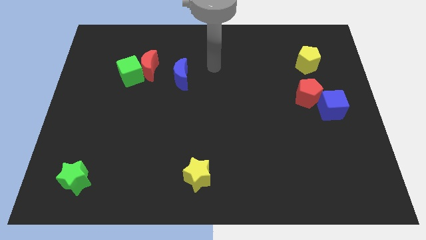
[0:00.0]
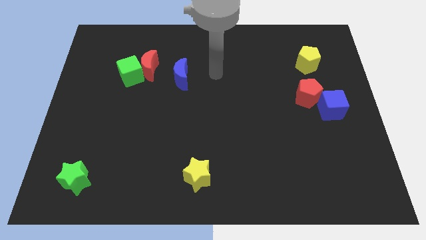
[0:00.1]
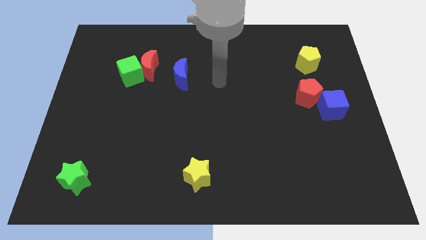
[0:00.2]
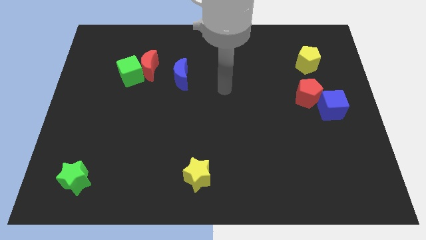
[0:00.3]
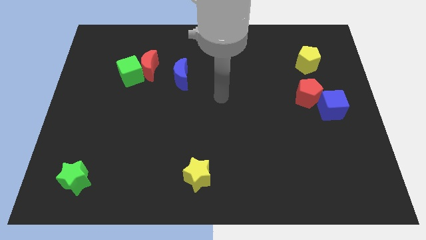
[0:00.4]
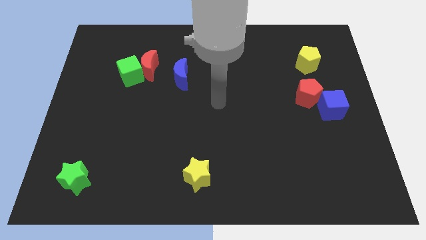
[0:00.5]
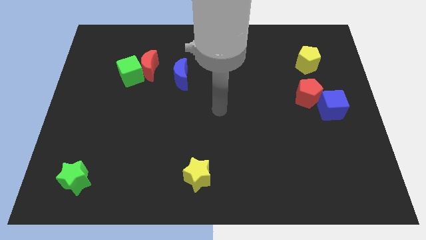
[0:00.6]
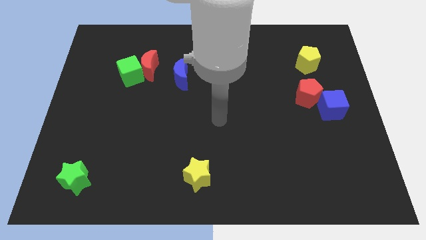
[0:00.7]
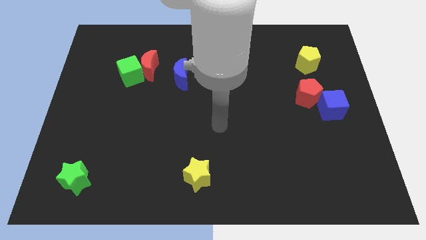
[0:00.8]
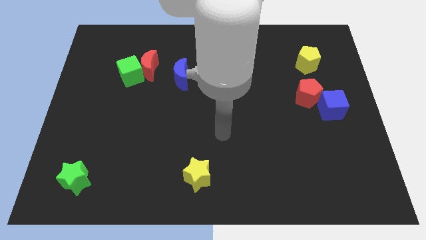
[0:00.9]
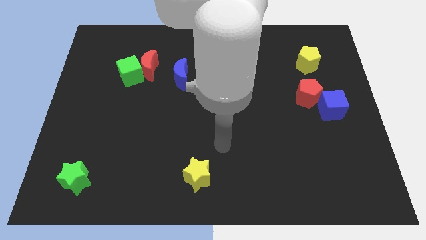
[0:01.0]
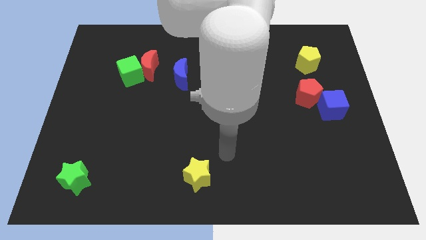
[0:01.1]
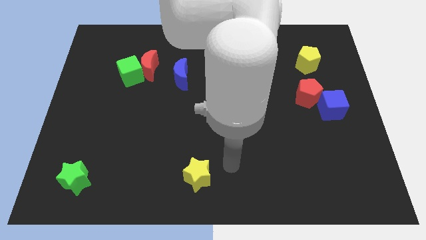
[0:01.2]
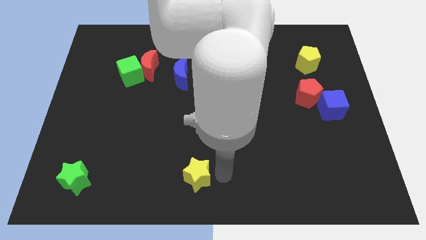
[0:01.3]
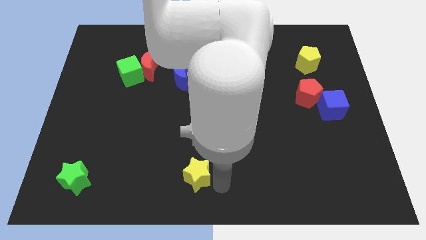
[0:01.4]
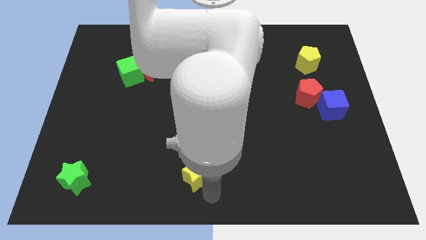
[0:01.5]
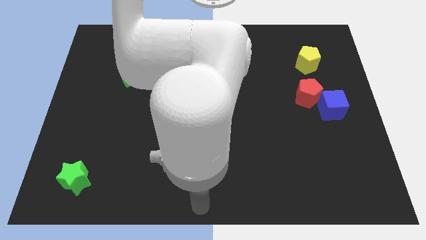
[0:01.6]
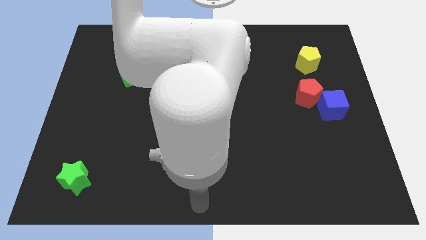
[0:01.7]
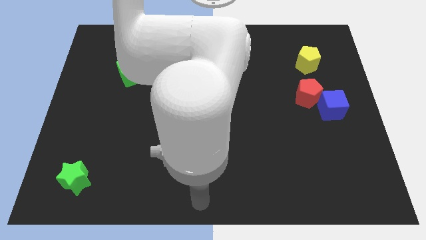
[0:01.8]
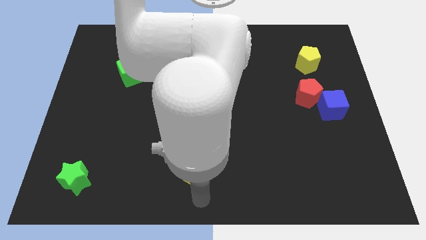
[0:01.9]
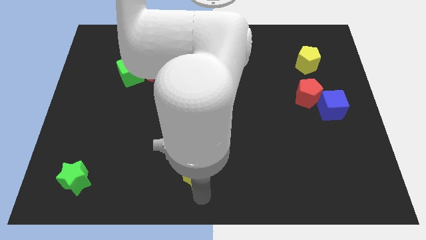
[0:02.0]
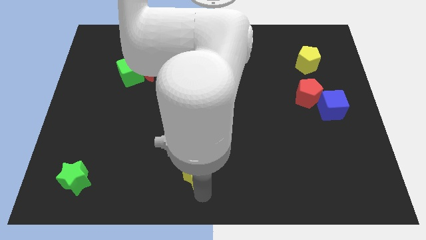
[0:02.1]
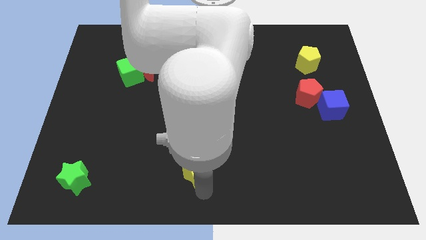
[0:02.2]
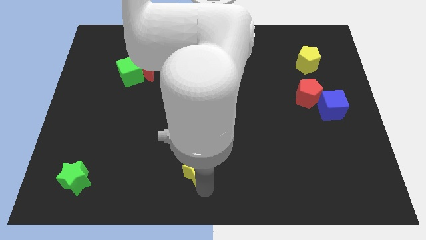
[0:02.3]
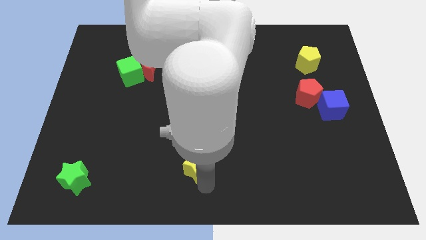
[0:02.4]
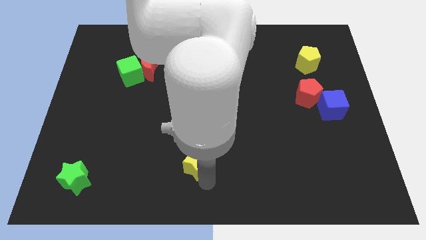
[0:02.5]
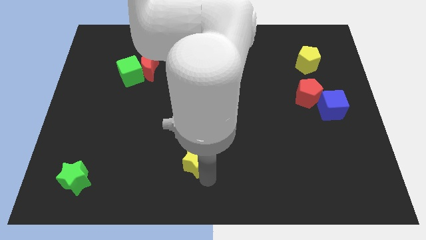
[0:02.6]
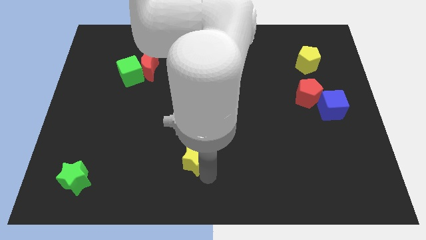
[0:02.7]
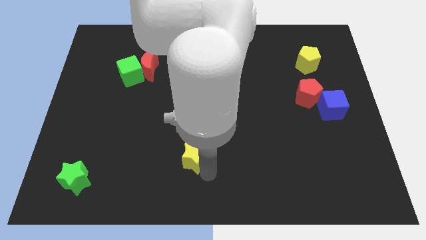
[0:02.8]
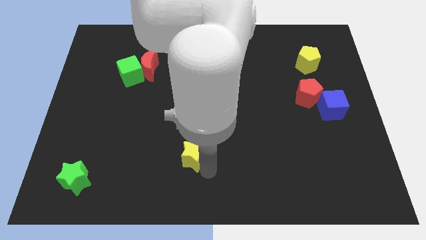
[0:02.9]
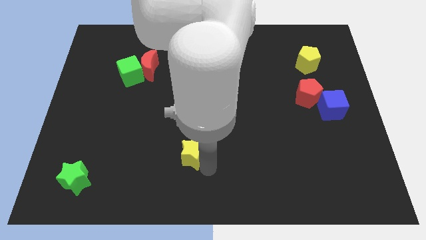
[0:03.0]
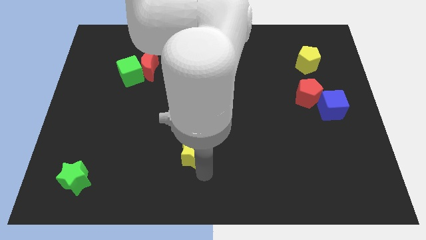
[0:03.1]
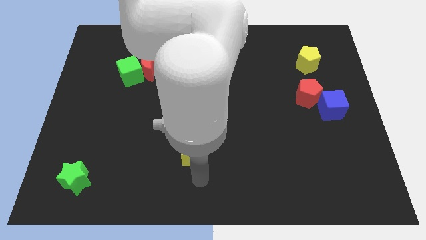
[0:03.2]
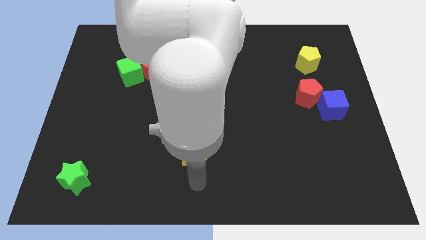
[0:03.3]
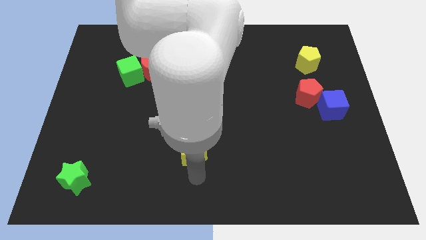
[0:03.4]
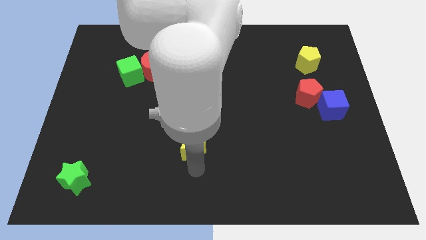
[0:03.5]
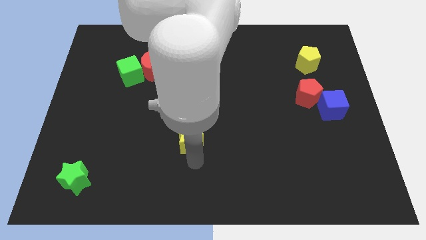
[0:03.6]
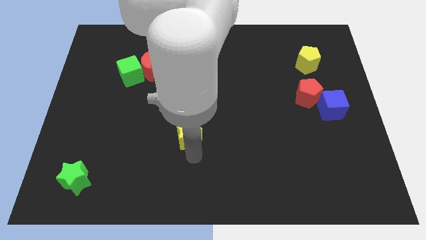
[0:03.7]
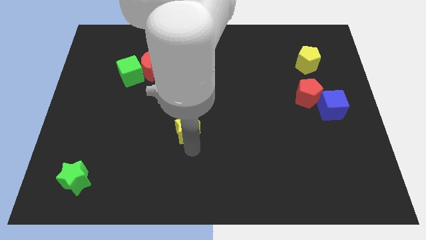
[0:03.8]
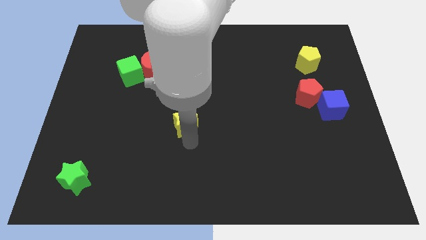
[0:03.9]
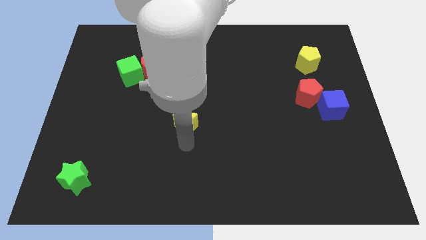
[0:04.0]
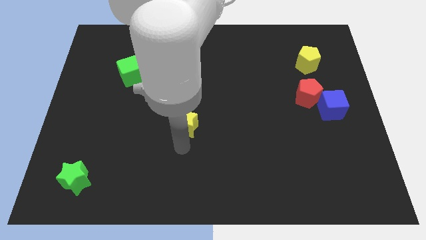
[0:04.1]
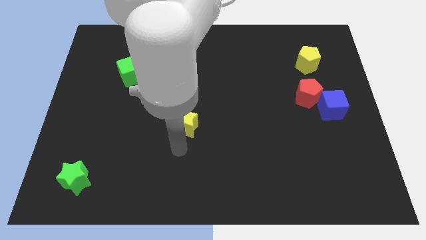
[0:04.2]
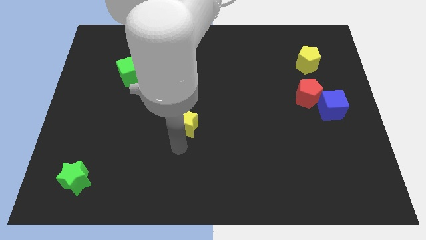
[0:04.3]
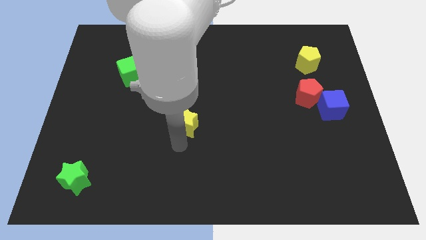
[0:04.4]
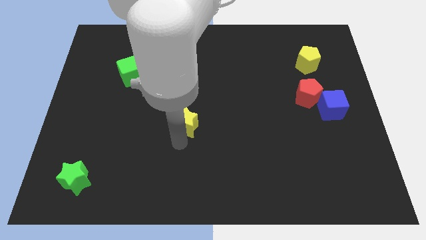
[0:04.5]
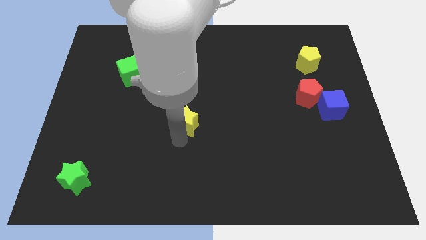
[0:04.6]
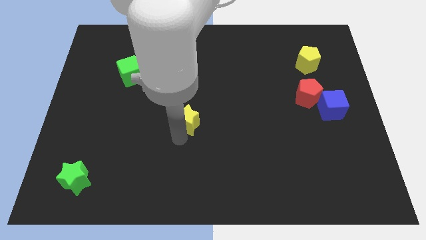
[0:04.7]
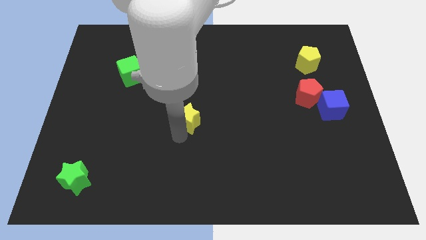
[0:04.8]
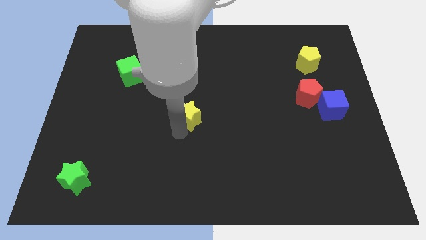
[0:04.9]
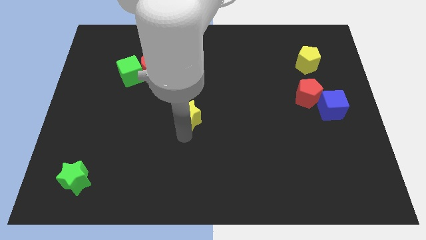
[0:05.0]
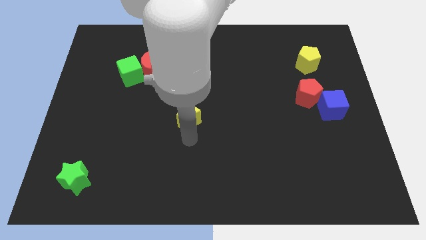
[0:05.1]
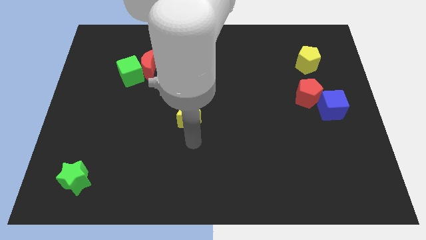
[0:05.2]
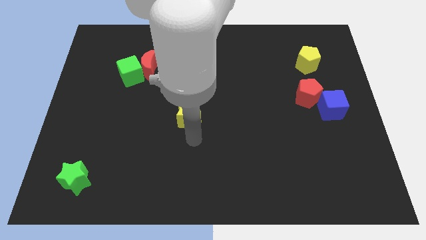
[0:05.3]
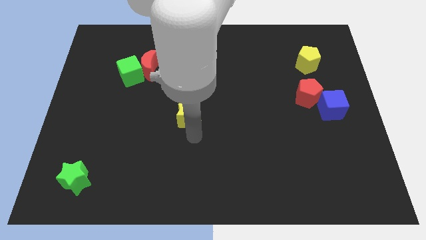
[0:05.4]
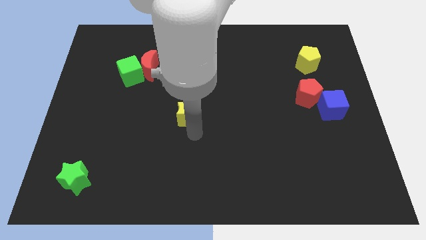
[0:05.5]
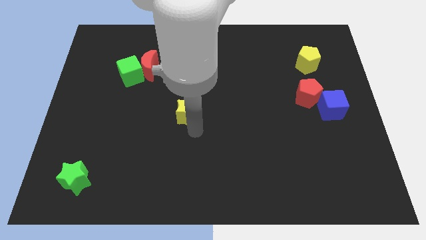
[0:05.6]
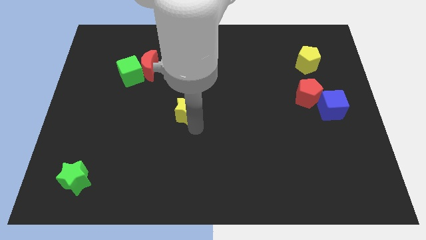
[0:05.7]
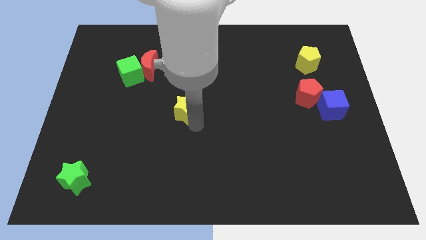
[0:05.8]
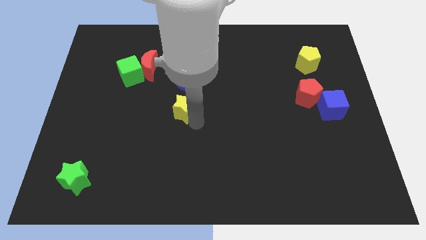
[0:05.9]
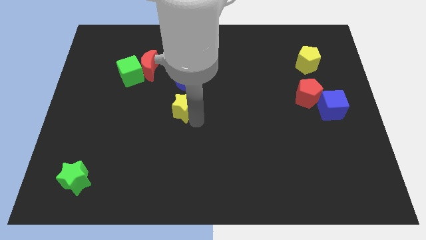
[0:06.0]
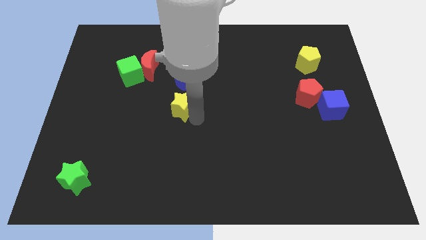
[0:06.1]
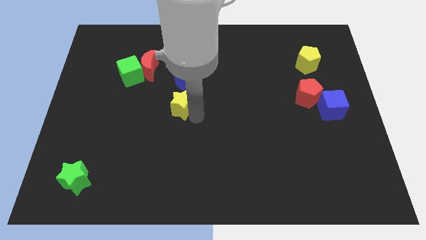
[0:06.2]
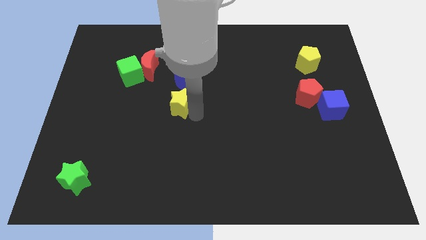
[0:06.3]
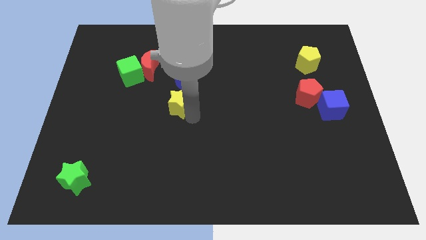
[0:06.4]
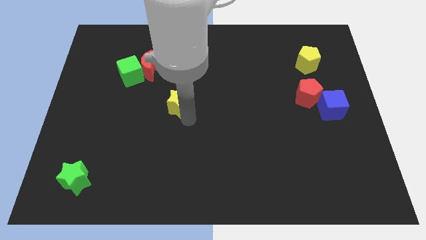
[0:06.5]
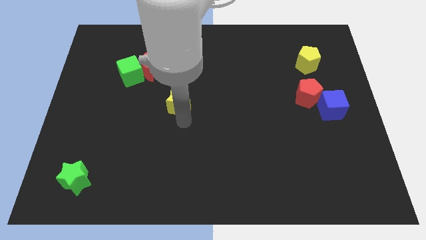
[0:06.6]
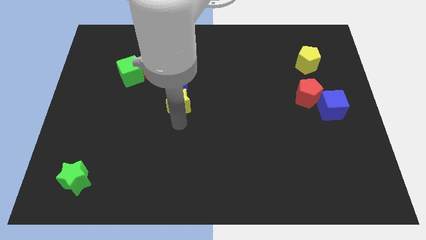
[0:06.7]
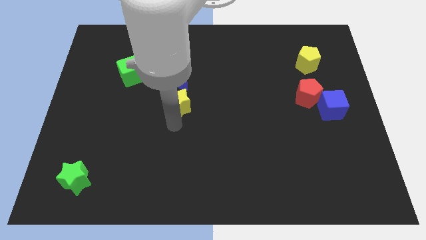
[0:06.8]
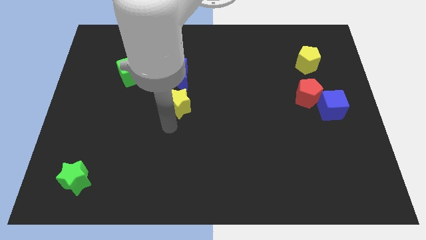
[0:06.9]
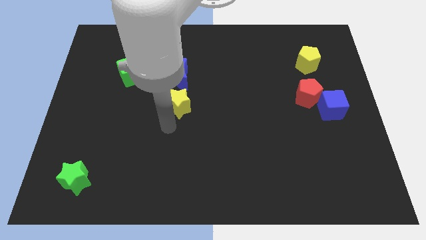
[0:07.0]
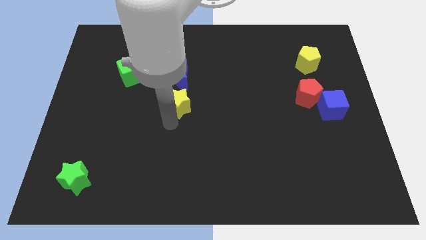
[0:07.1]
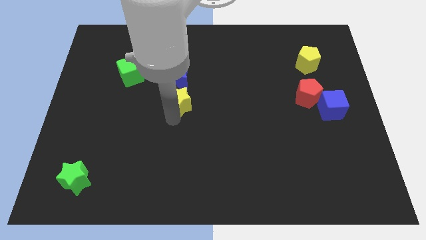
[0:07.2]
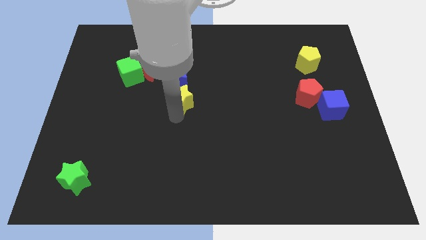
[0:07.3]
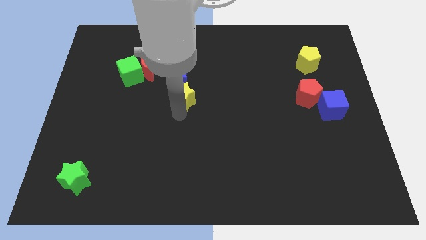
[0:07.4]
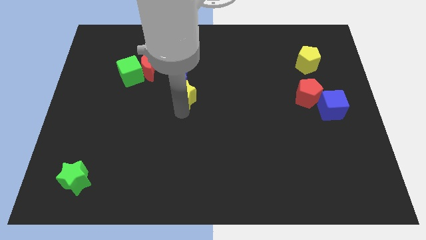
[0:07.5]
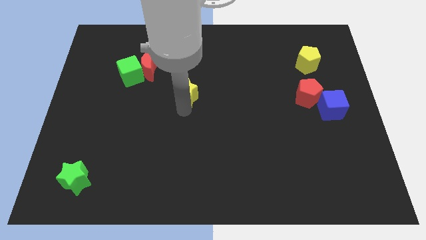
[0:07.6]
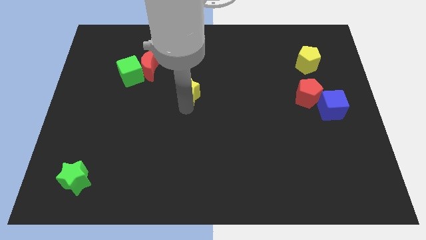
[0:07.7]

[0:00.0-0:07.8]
slide the yellow star to the blue moon
